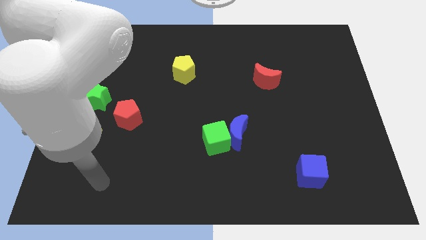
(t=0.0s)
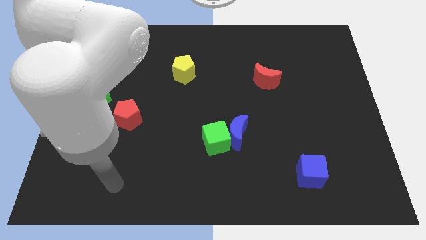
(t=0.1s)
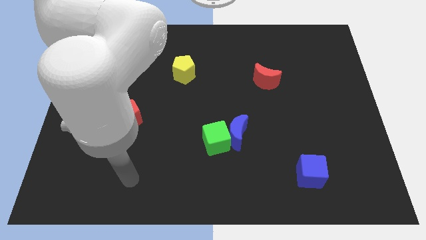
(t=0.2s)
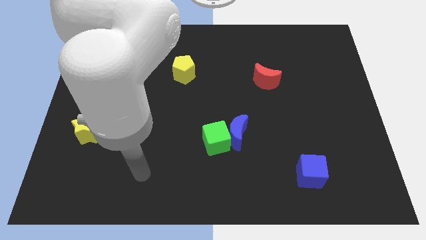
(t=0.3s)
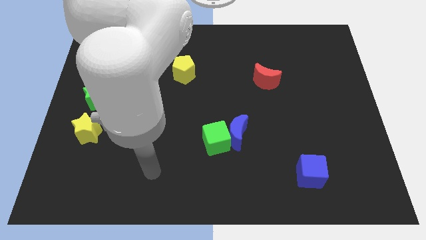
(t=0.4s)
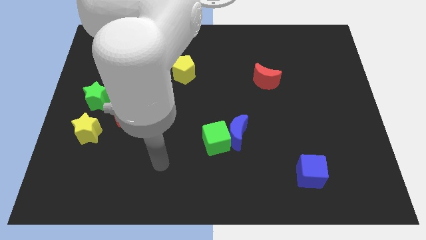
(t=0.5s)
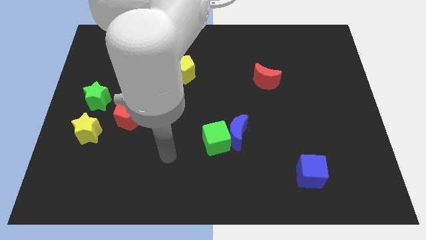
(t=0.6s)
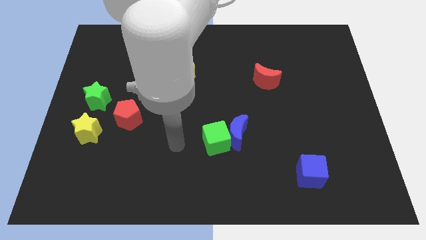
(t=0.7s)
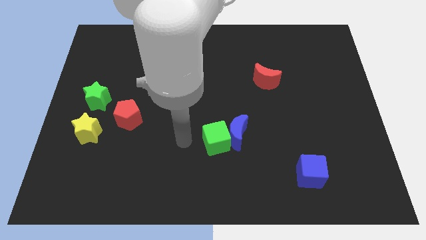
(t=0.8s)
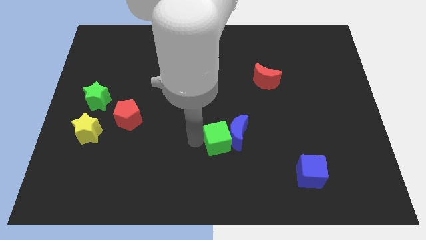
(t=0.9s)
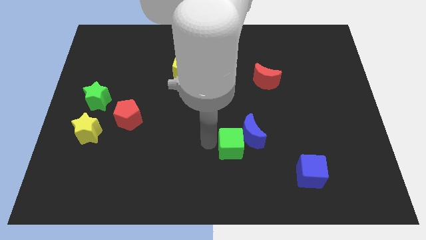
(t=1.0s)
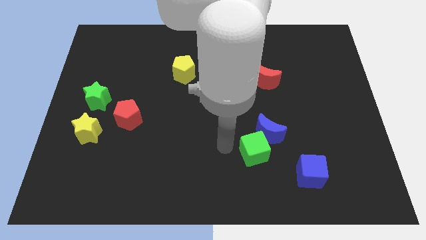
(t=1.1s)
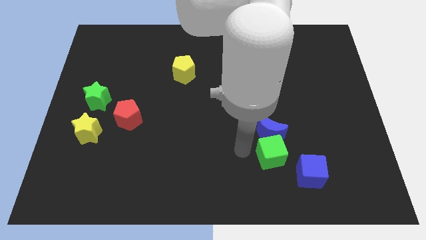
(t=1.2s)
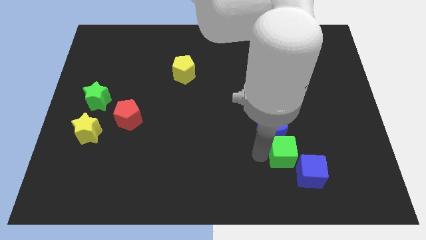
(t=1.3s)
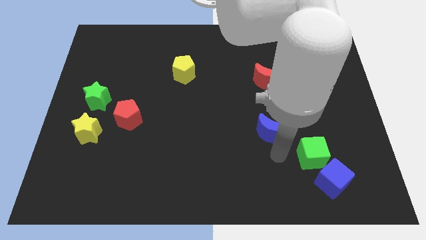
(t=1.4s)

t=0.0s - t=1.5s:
pull the blue moon apart from the green cube

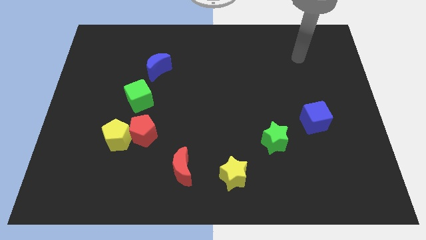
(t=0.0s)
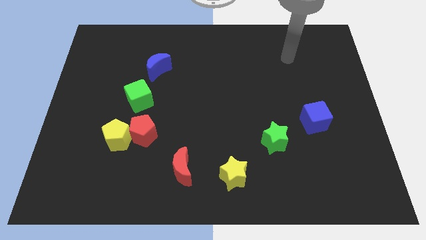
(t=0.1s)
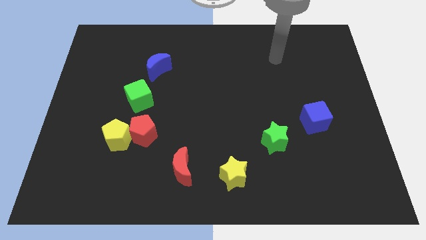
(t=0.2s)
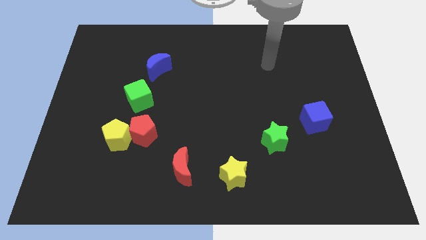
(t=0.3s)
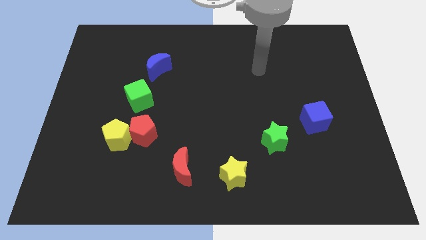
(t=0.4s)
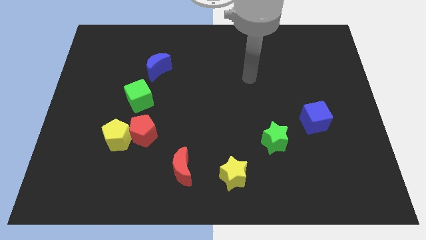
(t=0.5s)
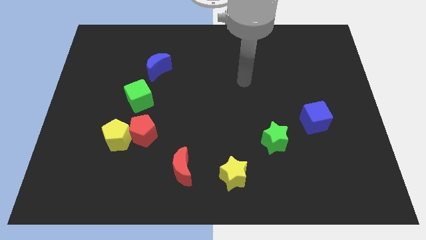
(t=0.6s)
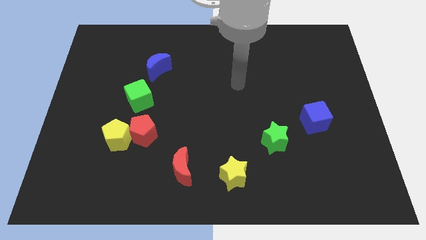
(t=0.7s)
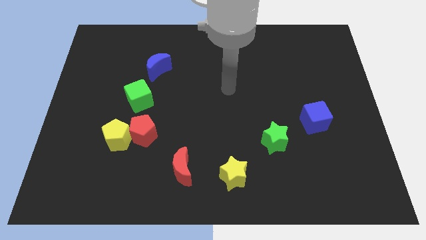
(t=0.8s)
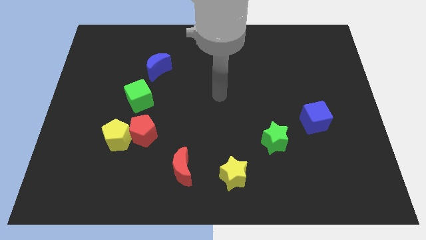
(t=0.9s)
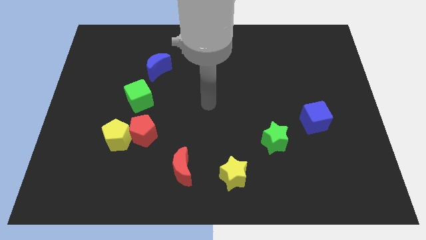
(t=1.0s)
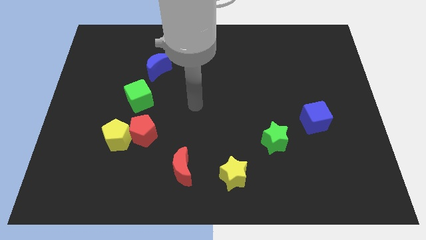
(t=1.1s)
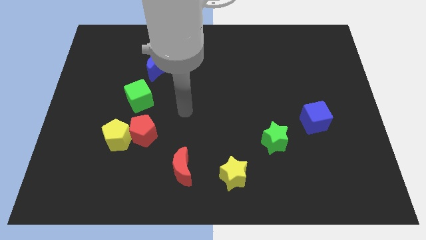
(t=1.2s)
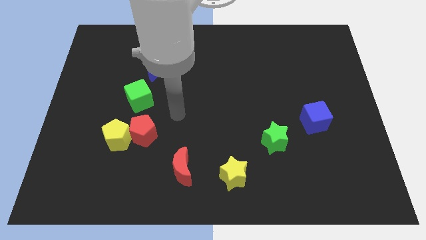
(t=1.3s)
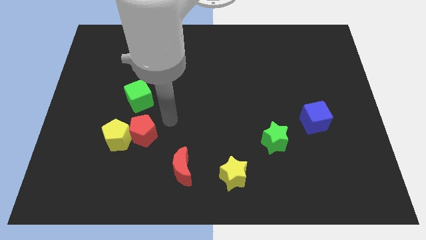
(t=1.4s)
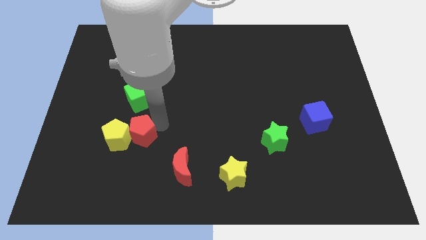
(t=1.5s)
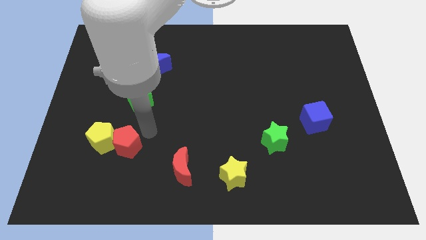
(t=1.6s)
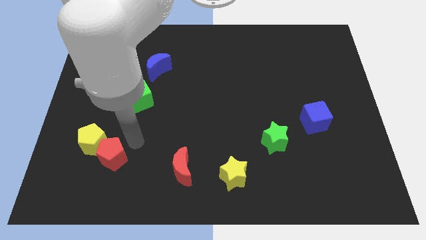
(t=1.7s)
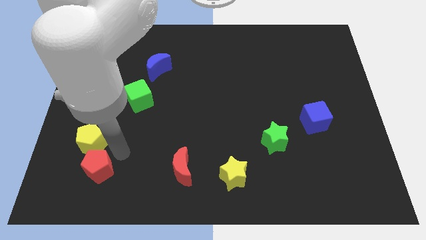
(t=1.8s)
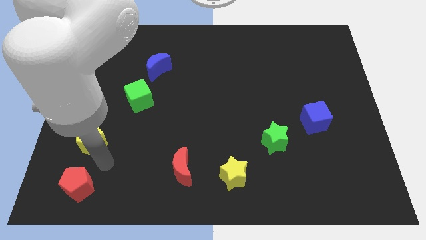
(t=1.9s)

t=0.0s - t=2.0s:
move the yellow pentagon away from the red pentagon

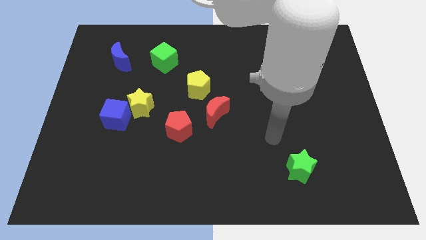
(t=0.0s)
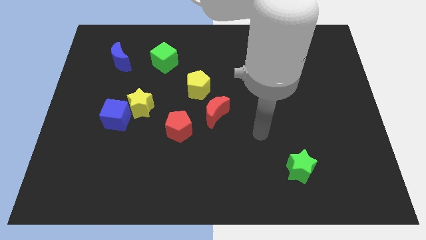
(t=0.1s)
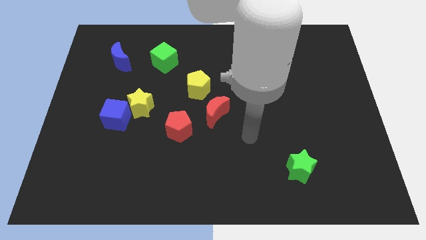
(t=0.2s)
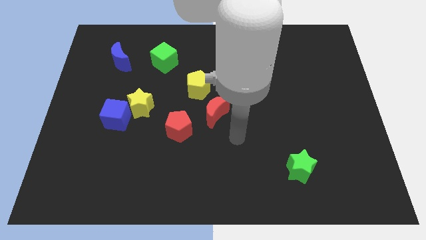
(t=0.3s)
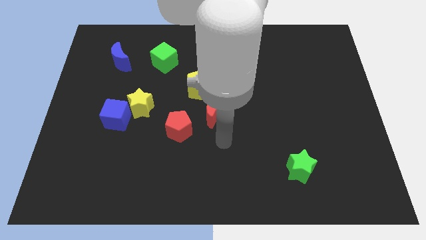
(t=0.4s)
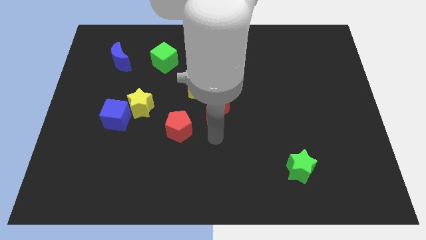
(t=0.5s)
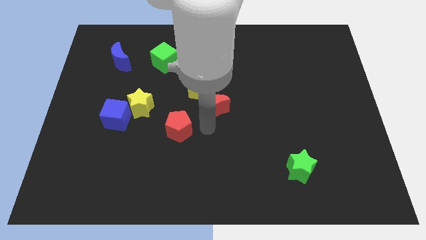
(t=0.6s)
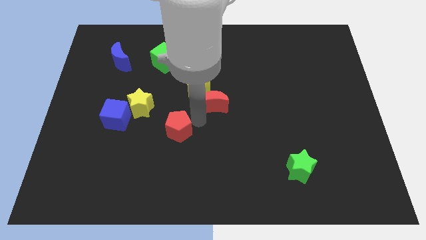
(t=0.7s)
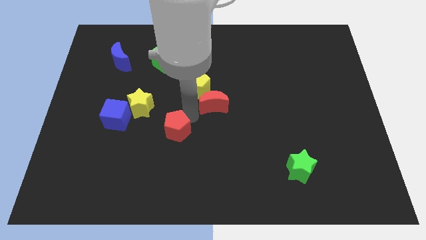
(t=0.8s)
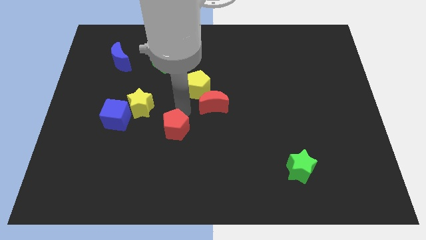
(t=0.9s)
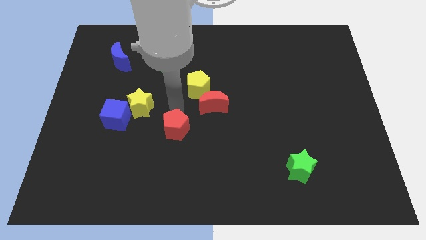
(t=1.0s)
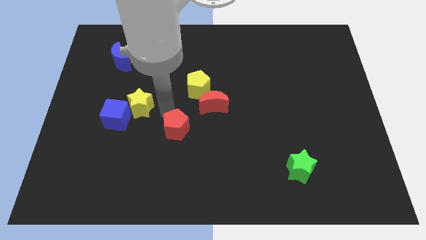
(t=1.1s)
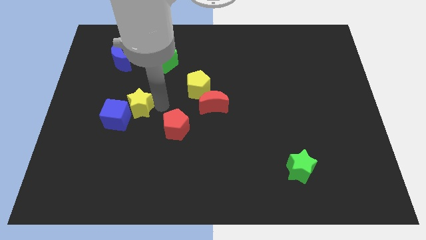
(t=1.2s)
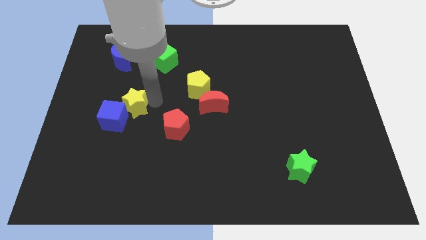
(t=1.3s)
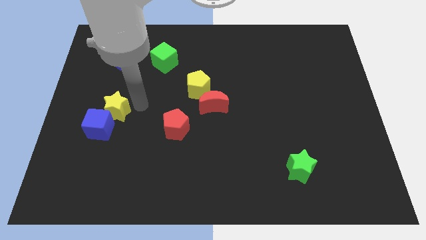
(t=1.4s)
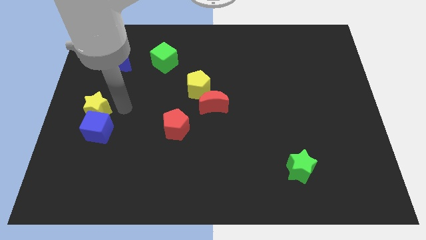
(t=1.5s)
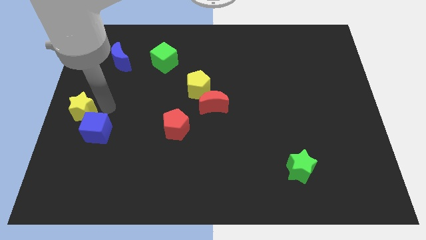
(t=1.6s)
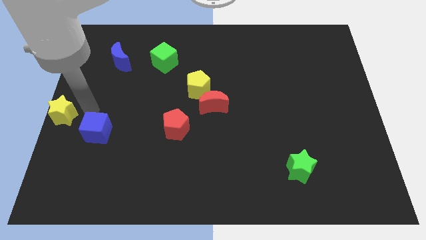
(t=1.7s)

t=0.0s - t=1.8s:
pull the blue cube apart from the yellow star

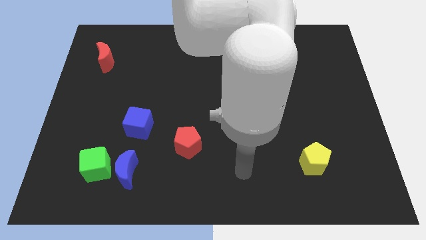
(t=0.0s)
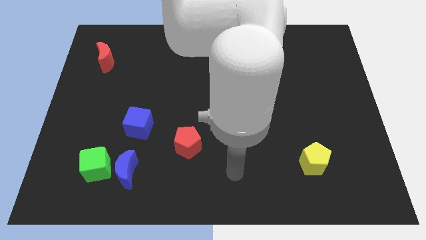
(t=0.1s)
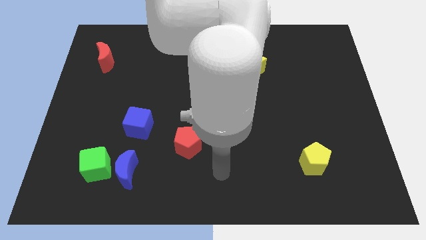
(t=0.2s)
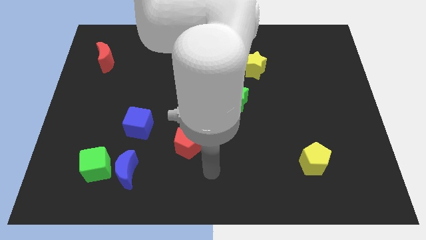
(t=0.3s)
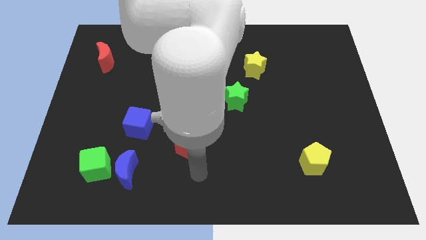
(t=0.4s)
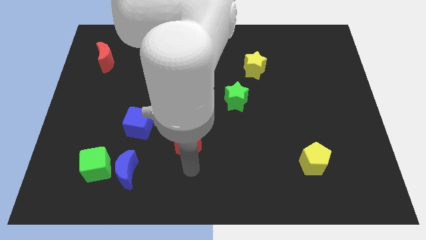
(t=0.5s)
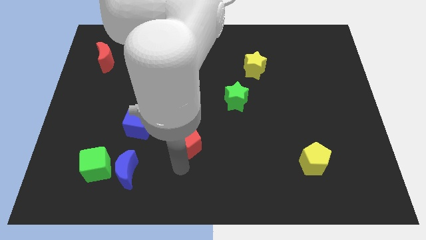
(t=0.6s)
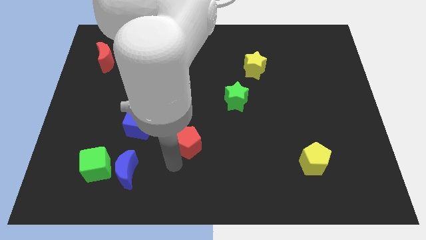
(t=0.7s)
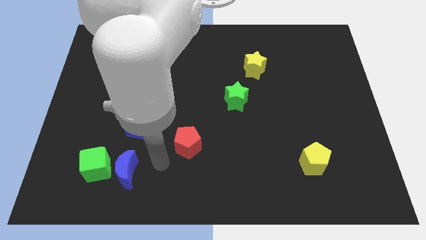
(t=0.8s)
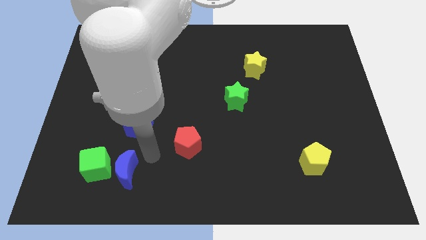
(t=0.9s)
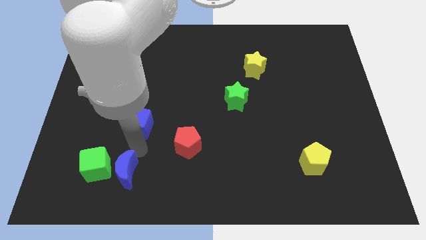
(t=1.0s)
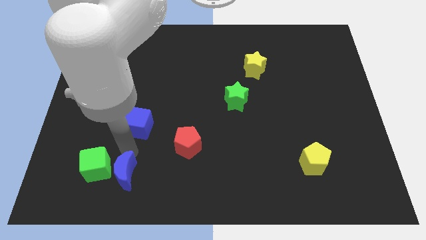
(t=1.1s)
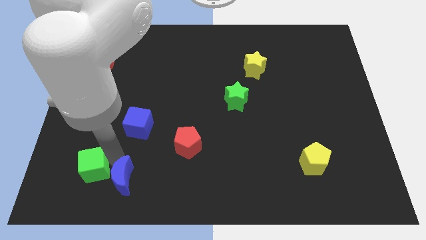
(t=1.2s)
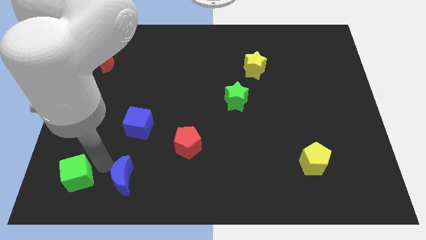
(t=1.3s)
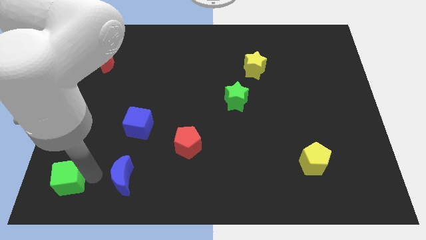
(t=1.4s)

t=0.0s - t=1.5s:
separate the blue moon from the green cube

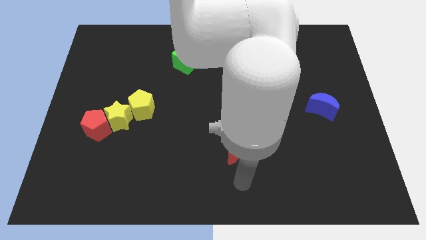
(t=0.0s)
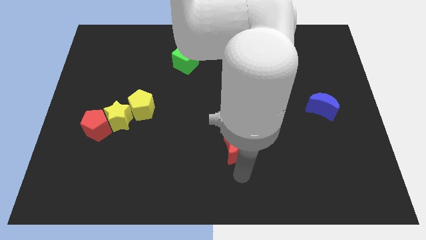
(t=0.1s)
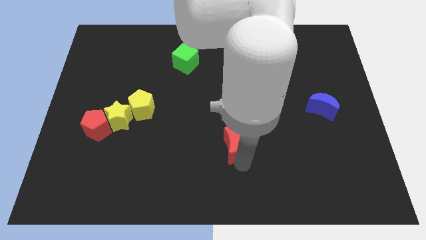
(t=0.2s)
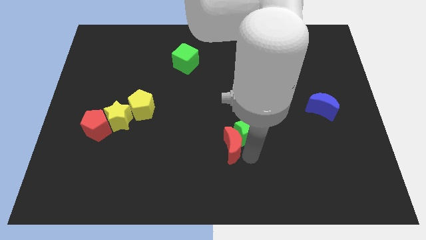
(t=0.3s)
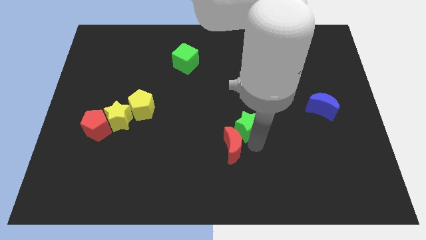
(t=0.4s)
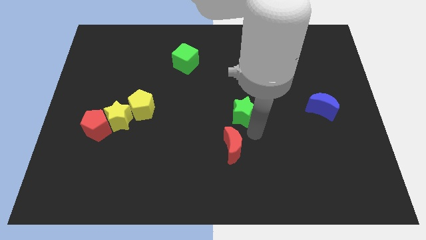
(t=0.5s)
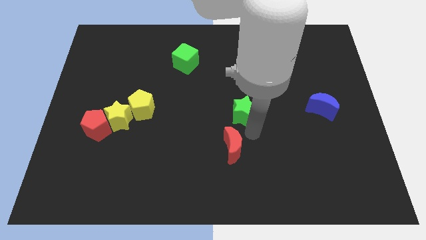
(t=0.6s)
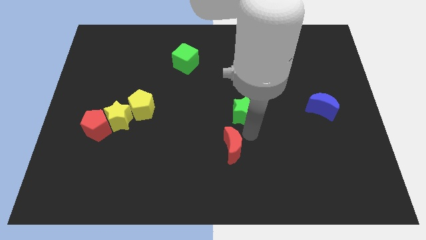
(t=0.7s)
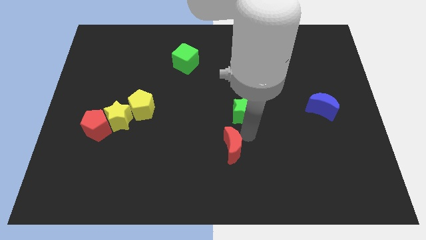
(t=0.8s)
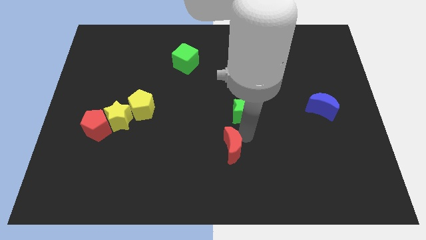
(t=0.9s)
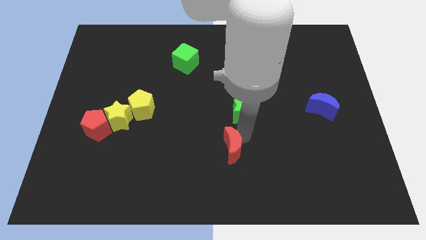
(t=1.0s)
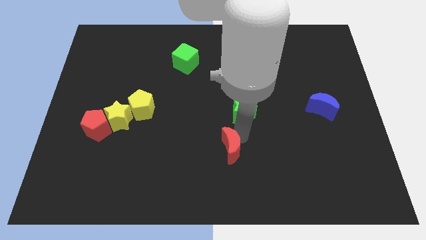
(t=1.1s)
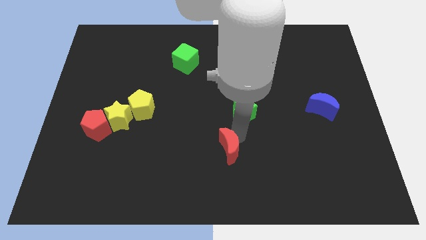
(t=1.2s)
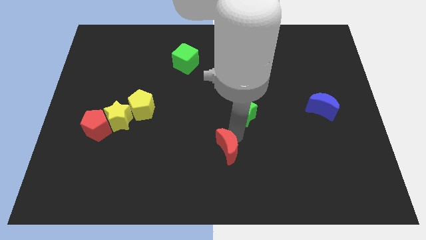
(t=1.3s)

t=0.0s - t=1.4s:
separate the red moon from the green star

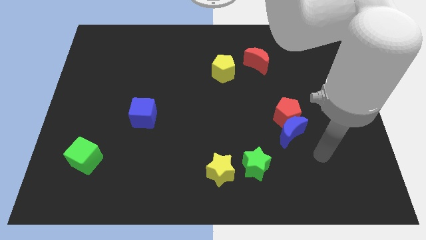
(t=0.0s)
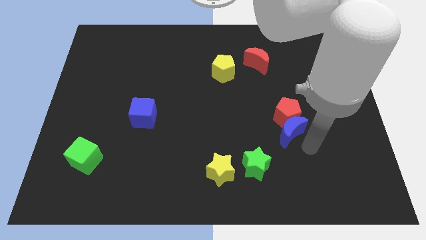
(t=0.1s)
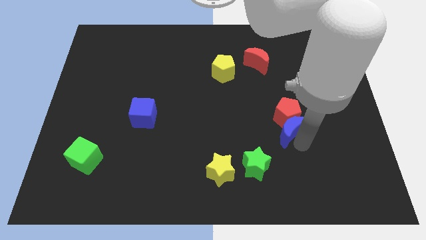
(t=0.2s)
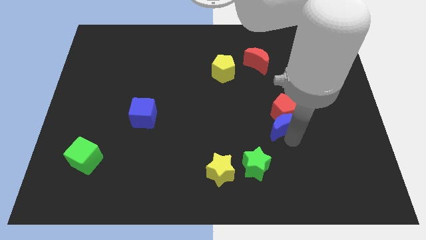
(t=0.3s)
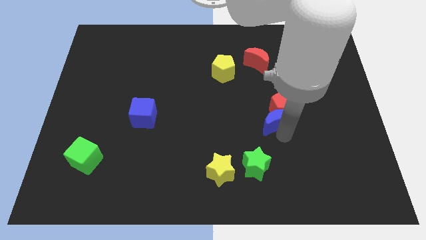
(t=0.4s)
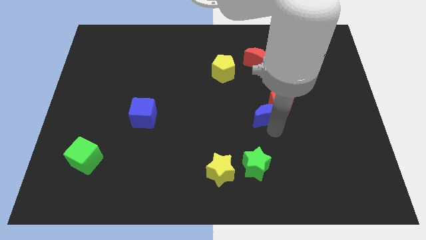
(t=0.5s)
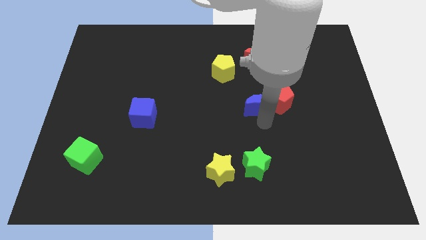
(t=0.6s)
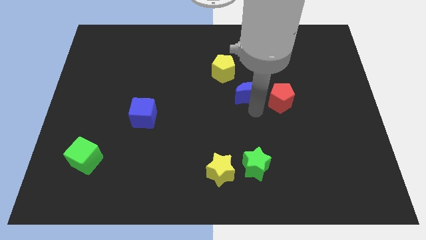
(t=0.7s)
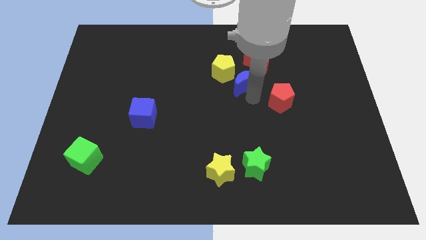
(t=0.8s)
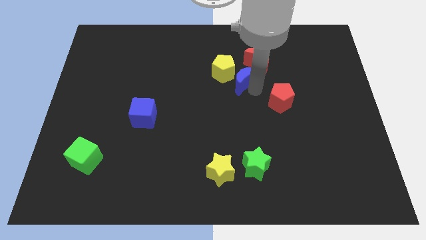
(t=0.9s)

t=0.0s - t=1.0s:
separate the red pentagon from the blue moon
